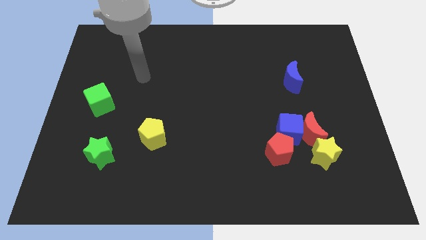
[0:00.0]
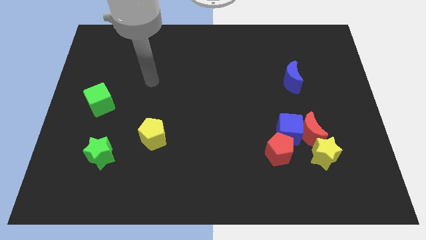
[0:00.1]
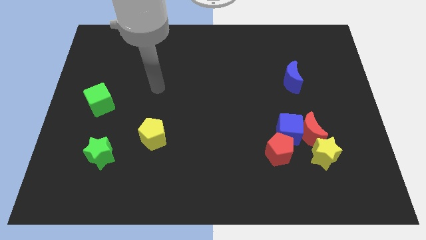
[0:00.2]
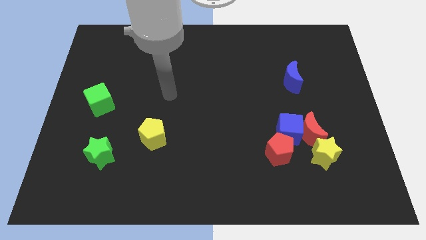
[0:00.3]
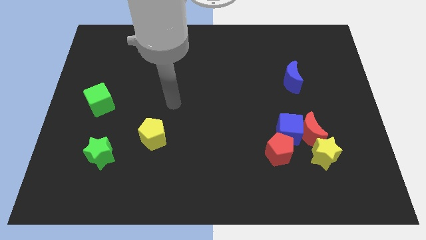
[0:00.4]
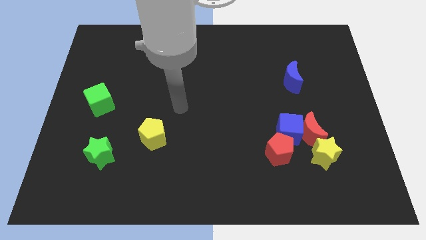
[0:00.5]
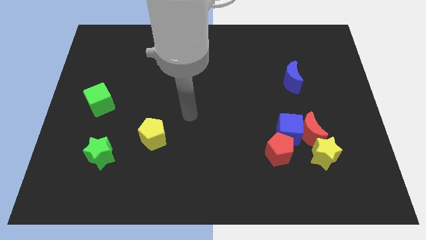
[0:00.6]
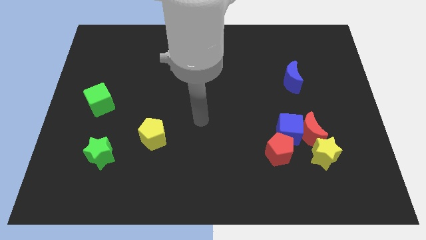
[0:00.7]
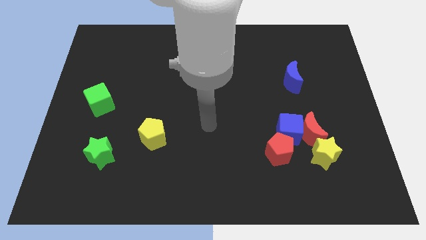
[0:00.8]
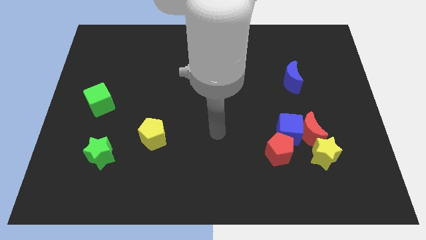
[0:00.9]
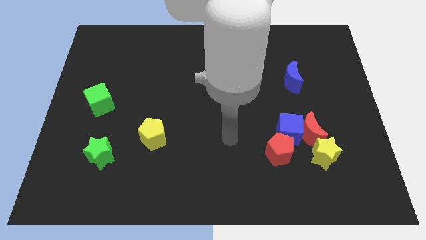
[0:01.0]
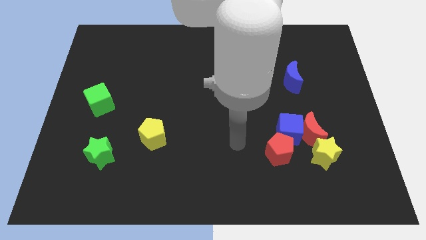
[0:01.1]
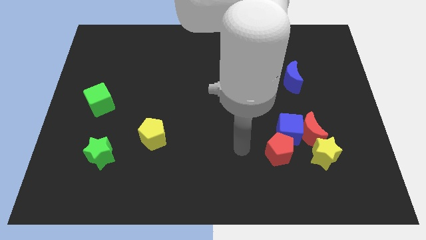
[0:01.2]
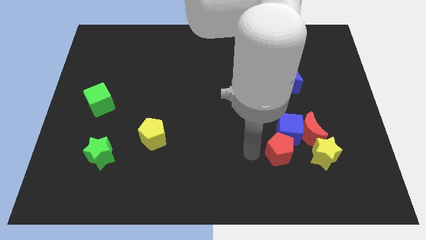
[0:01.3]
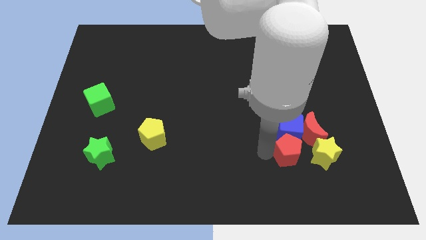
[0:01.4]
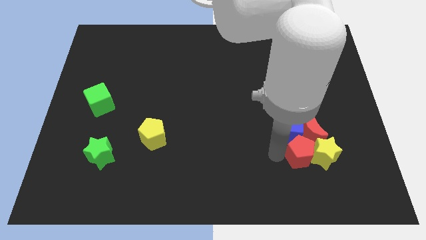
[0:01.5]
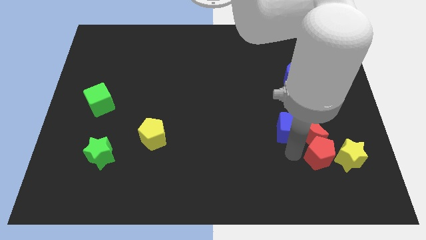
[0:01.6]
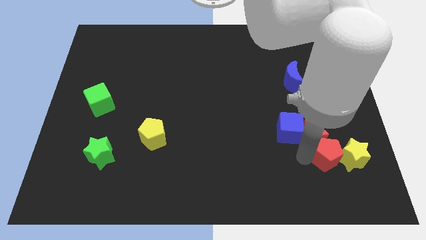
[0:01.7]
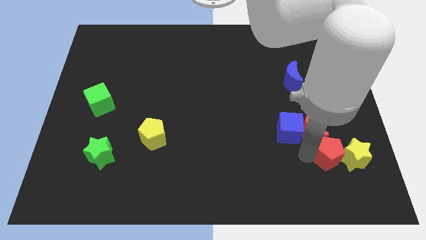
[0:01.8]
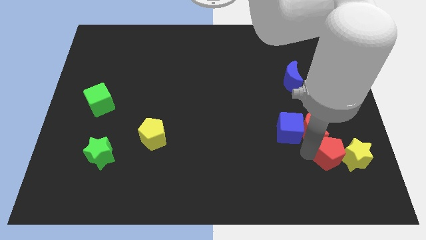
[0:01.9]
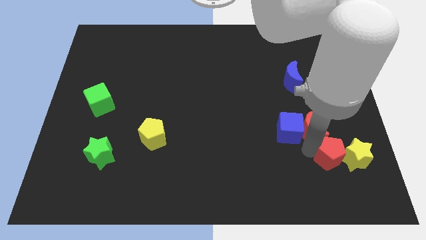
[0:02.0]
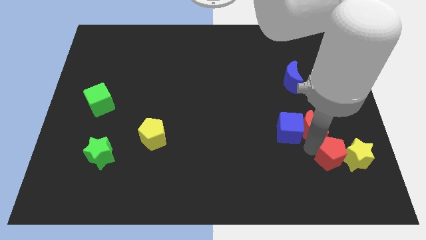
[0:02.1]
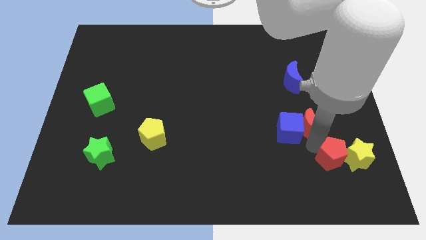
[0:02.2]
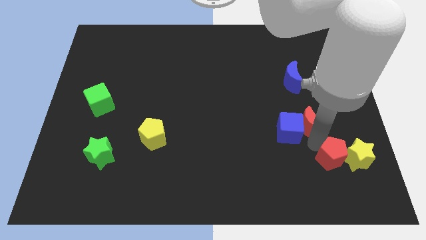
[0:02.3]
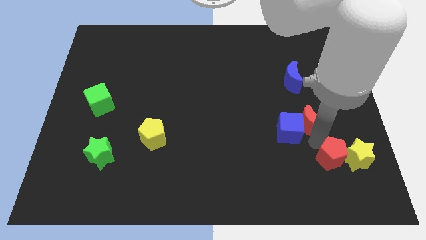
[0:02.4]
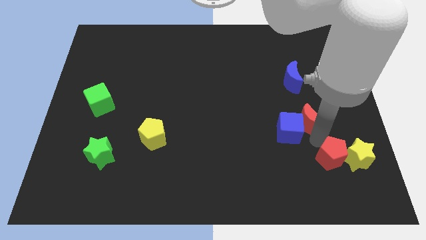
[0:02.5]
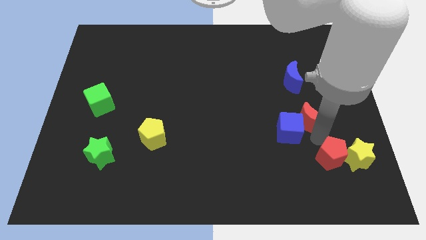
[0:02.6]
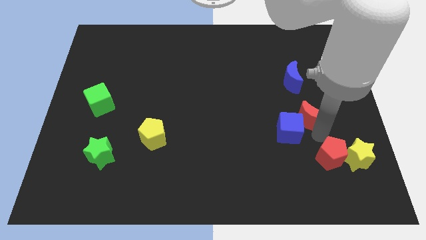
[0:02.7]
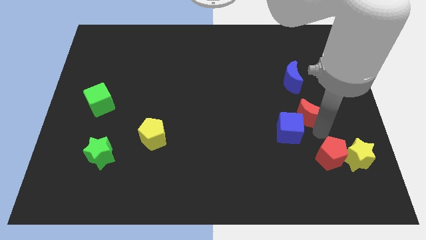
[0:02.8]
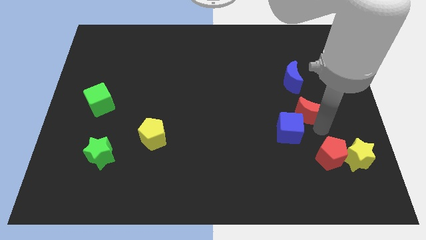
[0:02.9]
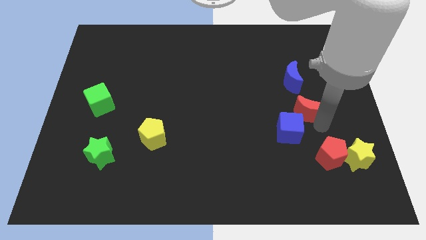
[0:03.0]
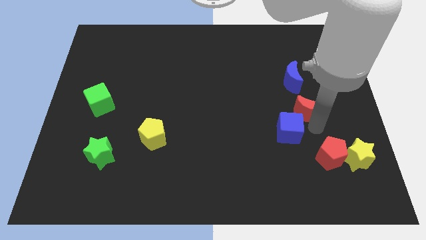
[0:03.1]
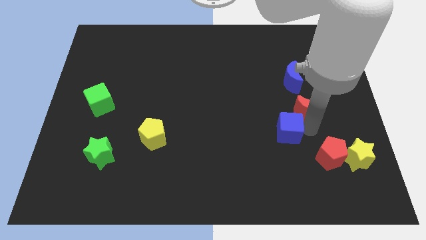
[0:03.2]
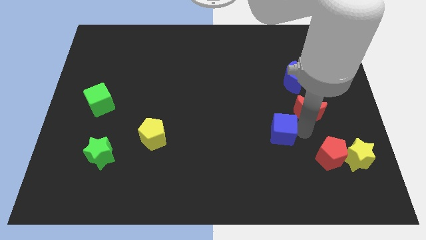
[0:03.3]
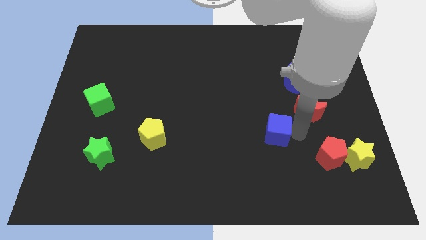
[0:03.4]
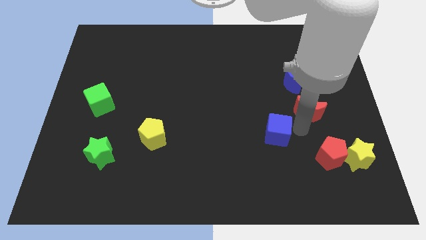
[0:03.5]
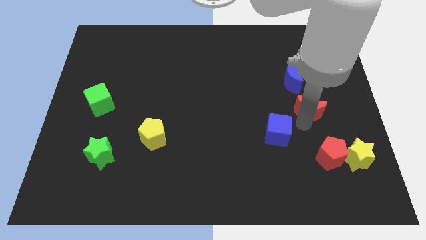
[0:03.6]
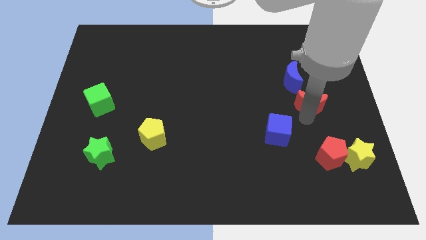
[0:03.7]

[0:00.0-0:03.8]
slightly slide the red moon upwards

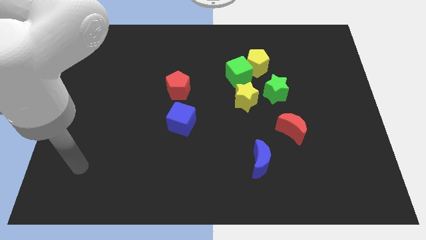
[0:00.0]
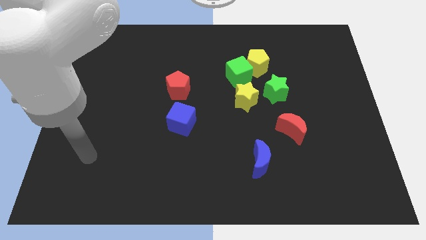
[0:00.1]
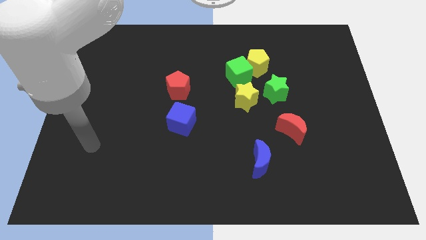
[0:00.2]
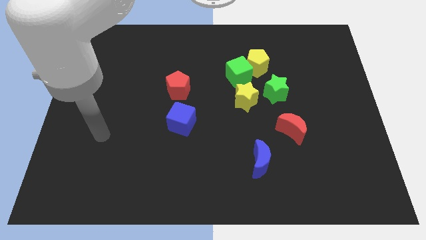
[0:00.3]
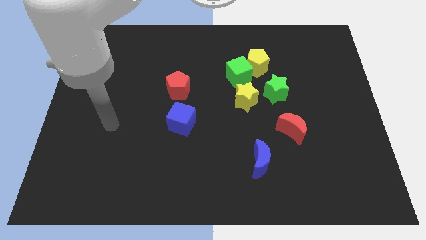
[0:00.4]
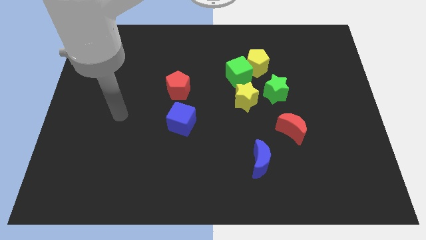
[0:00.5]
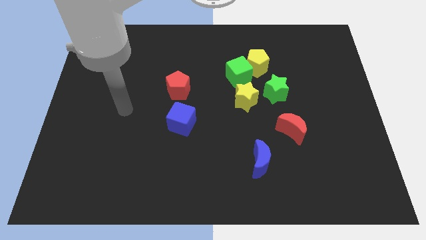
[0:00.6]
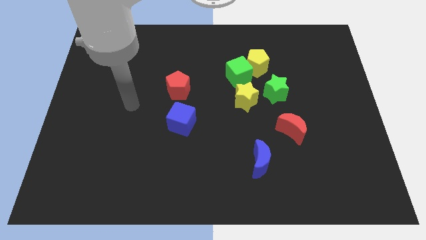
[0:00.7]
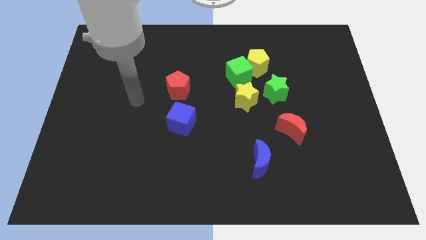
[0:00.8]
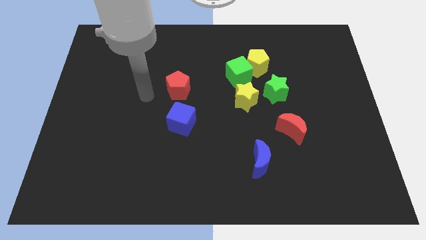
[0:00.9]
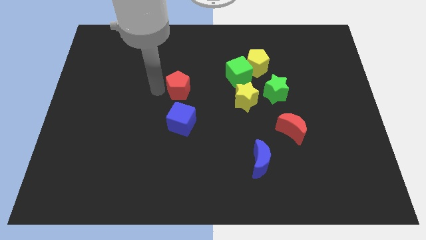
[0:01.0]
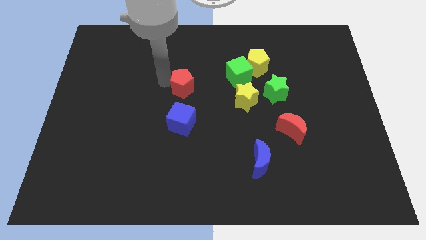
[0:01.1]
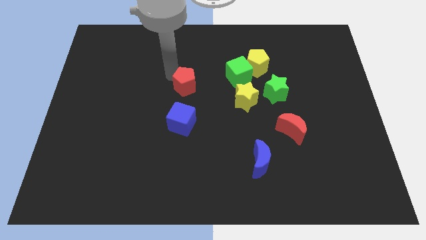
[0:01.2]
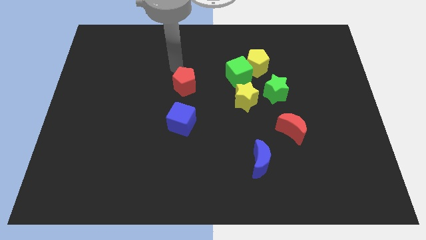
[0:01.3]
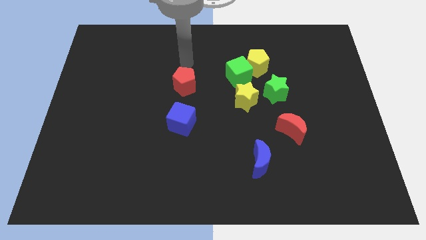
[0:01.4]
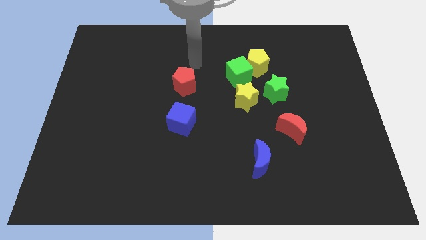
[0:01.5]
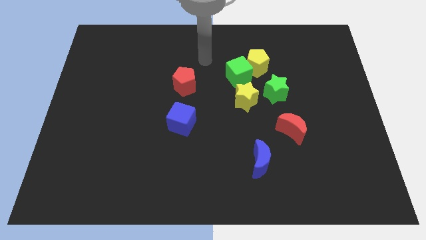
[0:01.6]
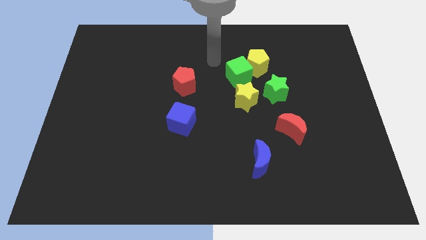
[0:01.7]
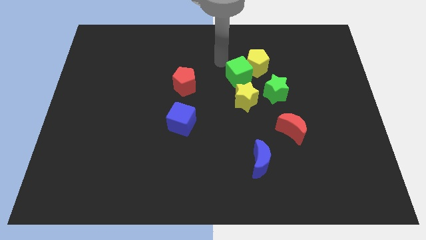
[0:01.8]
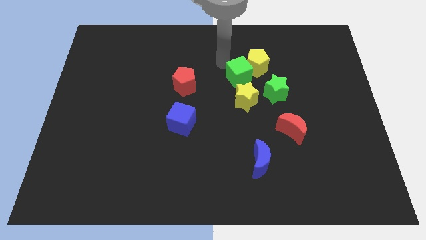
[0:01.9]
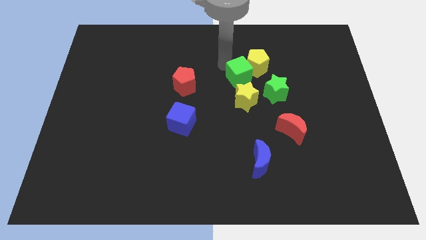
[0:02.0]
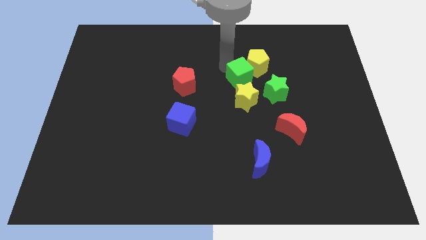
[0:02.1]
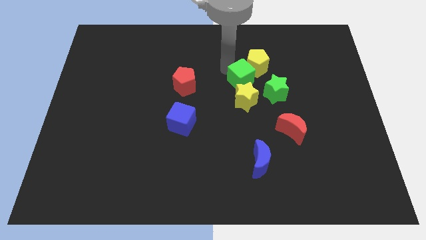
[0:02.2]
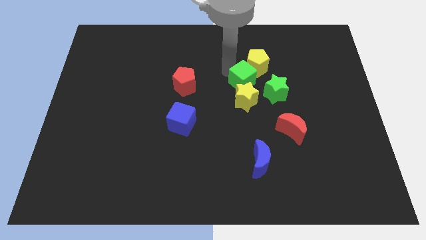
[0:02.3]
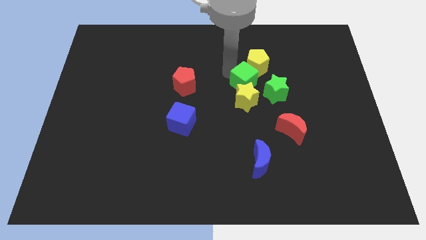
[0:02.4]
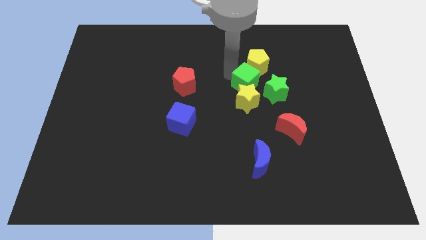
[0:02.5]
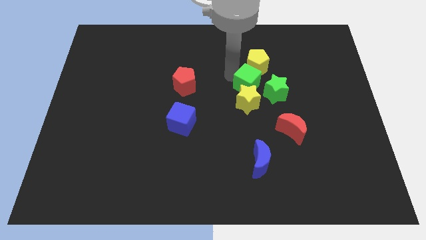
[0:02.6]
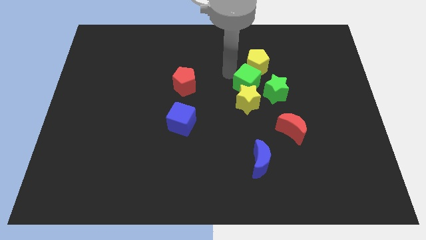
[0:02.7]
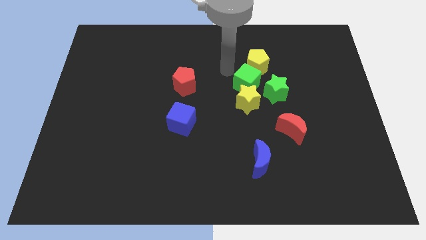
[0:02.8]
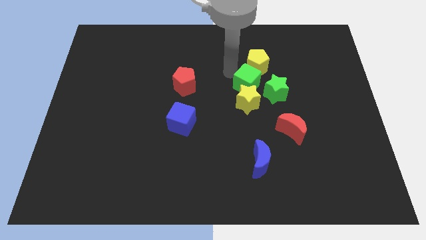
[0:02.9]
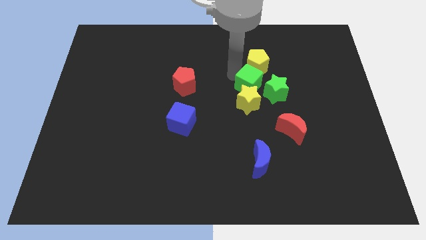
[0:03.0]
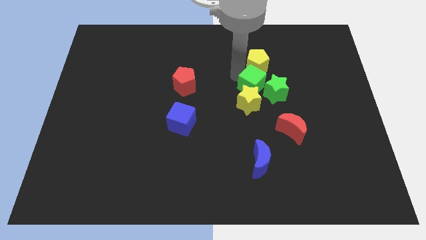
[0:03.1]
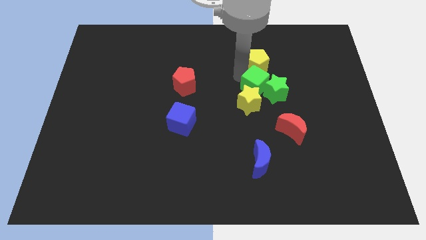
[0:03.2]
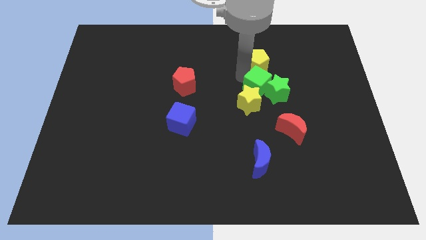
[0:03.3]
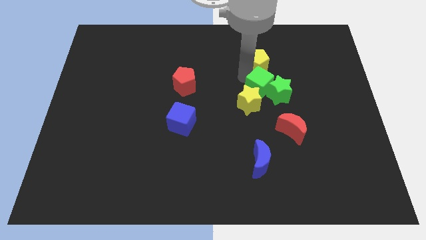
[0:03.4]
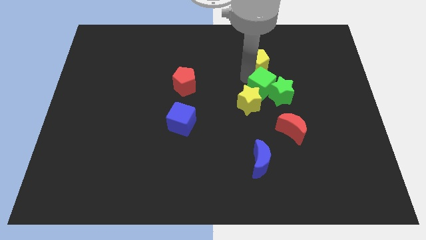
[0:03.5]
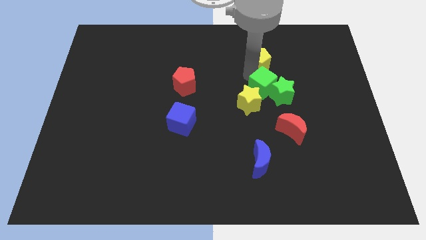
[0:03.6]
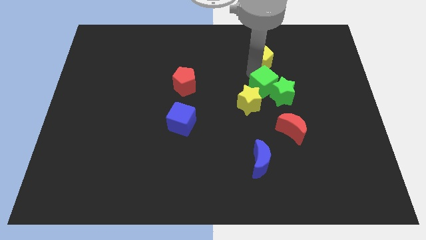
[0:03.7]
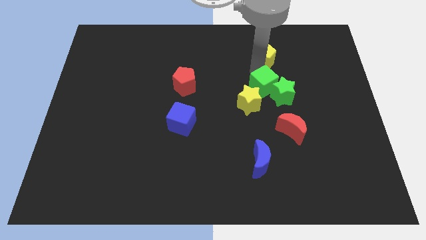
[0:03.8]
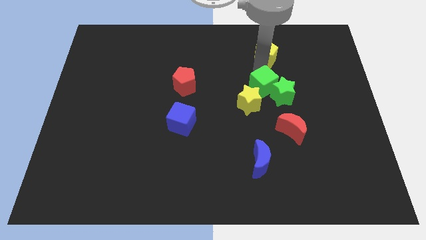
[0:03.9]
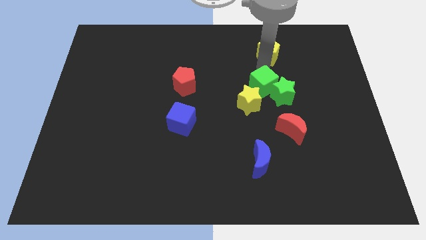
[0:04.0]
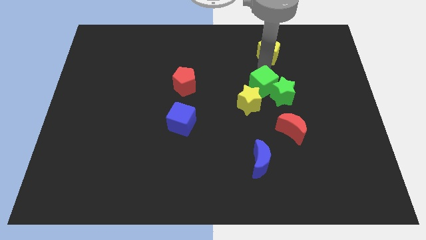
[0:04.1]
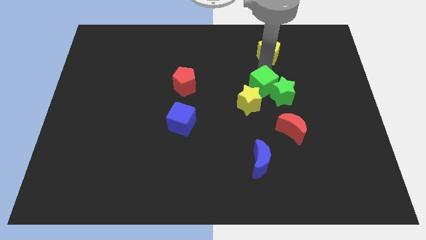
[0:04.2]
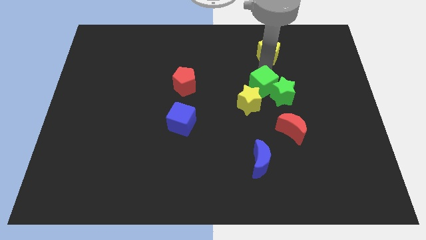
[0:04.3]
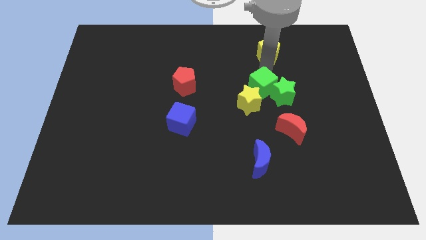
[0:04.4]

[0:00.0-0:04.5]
slightly move the green cube down and then to the right
